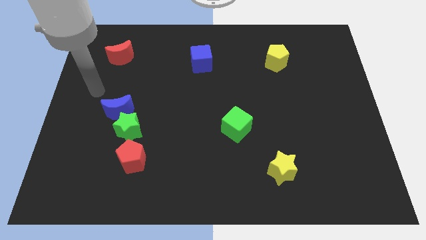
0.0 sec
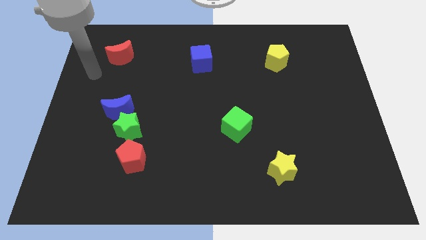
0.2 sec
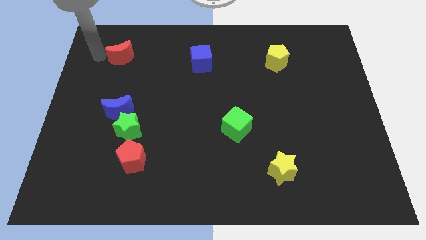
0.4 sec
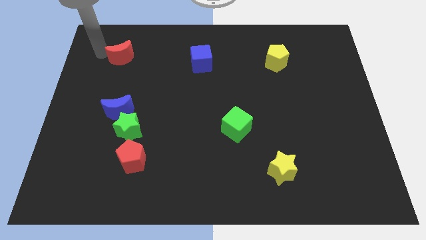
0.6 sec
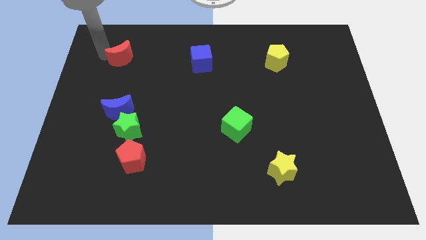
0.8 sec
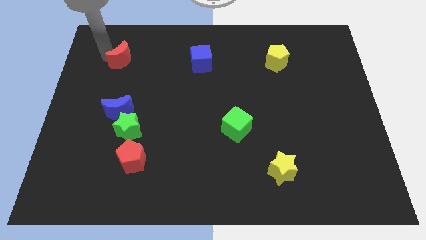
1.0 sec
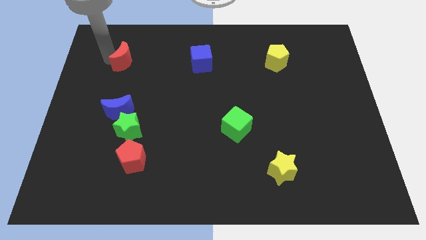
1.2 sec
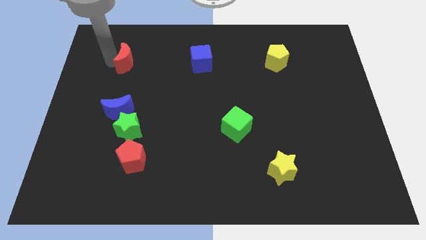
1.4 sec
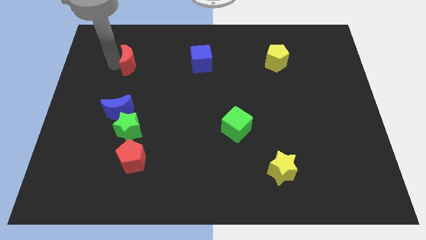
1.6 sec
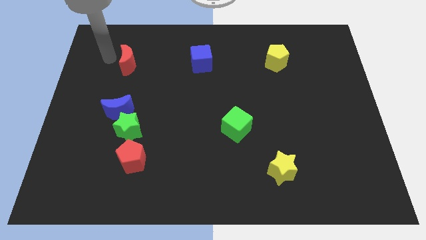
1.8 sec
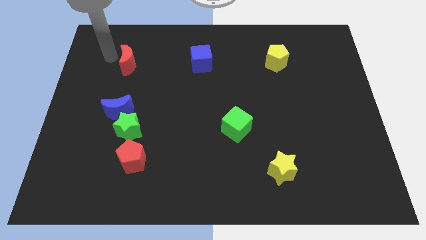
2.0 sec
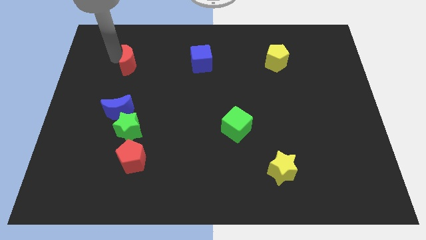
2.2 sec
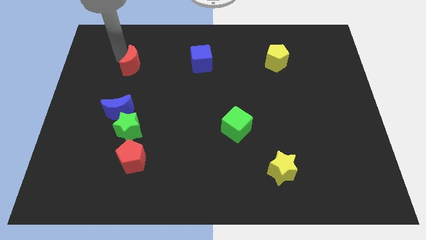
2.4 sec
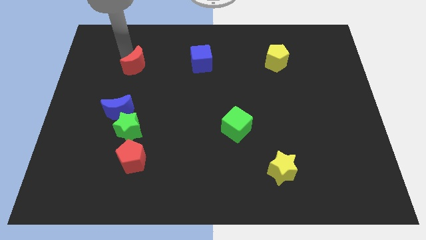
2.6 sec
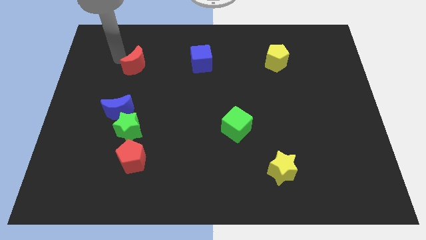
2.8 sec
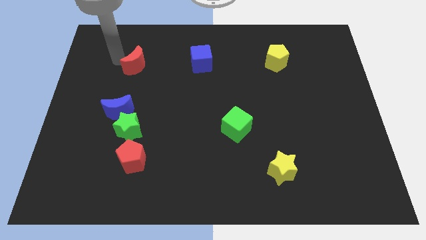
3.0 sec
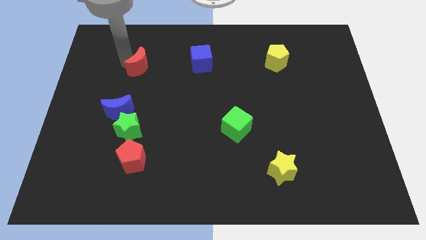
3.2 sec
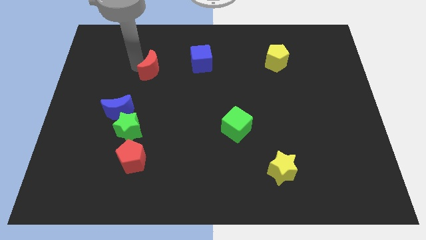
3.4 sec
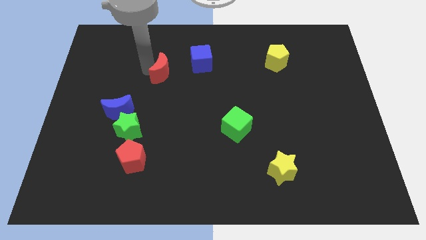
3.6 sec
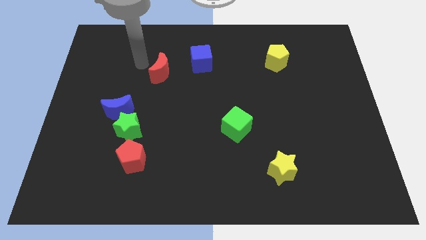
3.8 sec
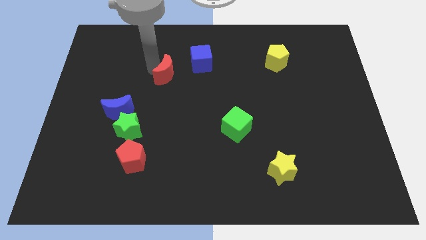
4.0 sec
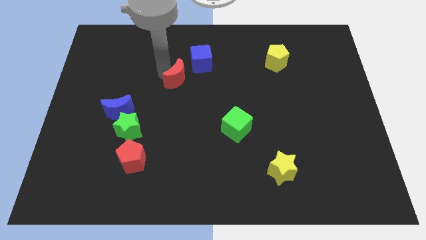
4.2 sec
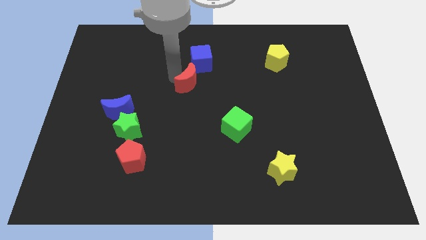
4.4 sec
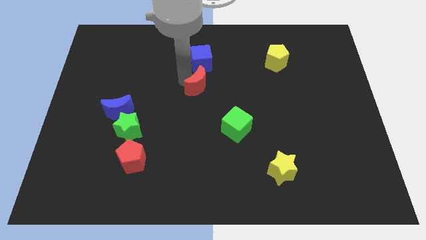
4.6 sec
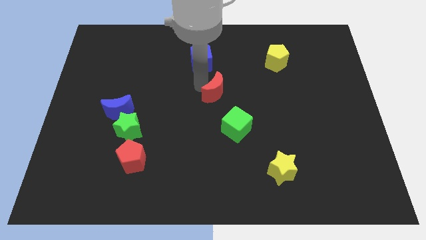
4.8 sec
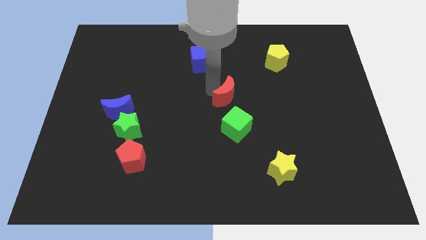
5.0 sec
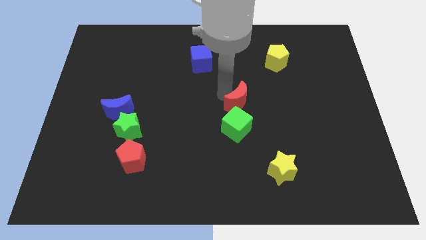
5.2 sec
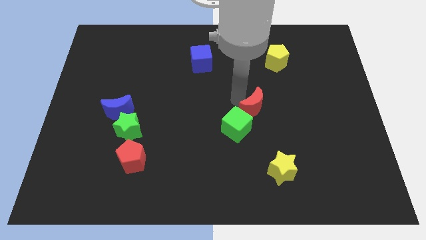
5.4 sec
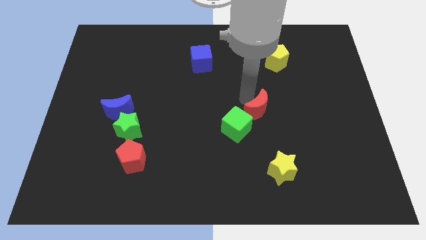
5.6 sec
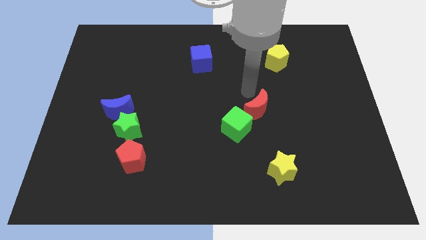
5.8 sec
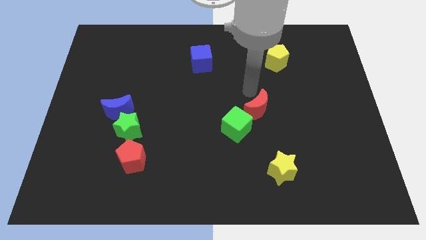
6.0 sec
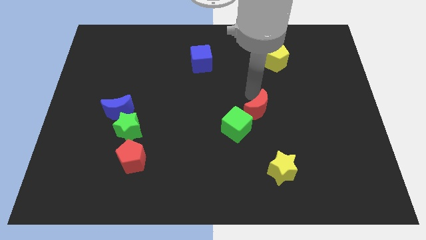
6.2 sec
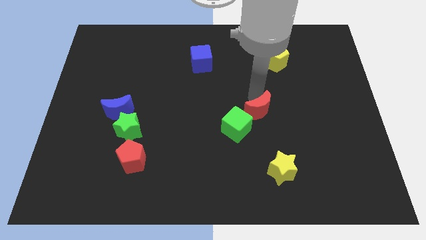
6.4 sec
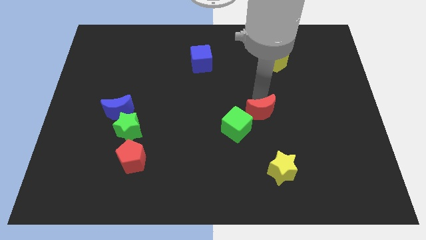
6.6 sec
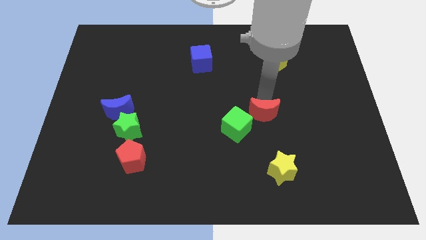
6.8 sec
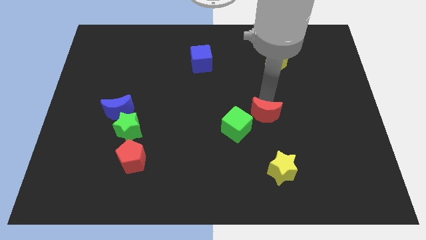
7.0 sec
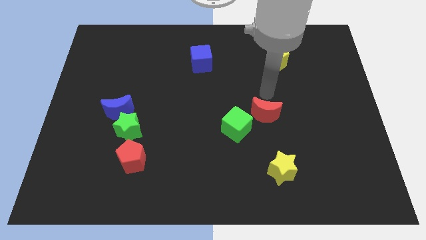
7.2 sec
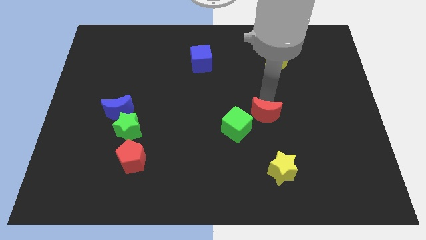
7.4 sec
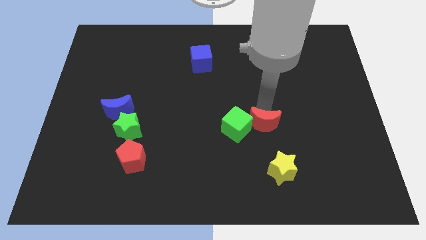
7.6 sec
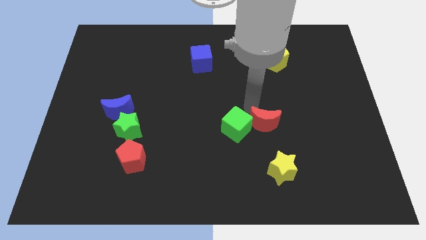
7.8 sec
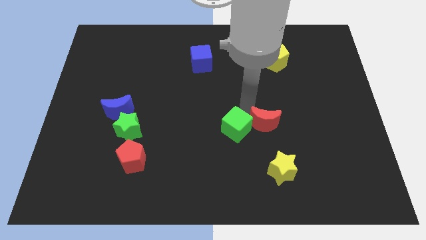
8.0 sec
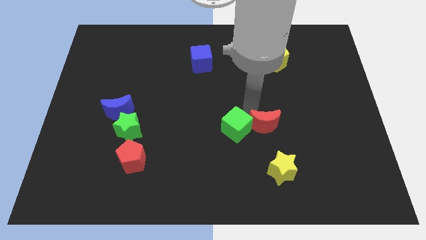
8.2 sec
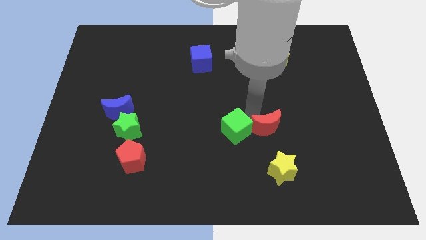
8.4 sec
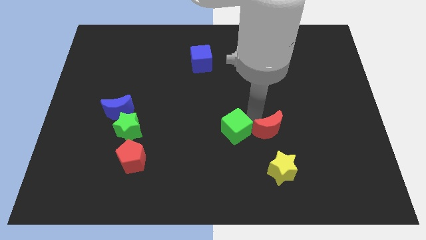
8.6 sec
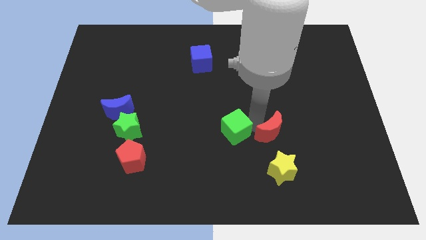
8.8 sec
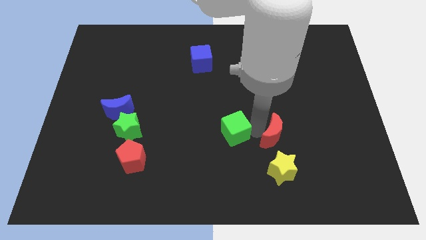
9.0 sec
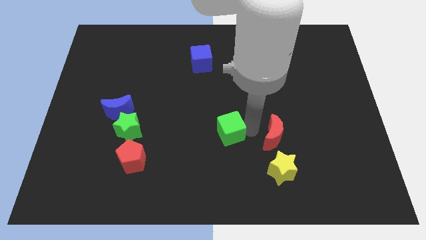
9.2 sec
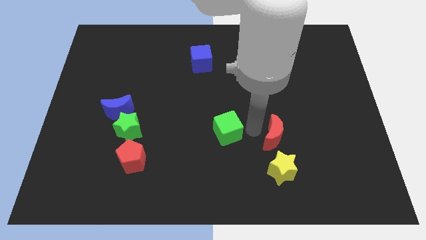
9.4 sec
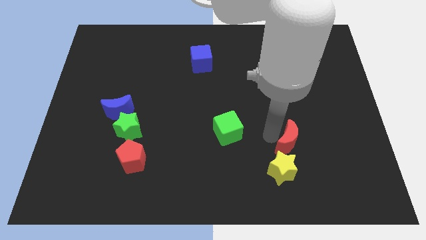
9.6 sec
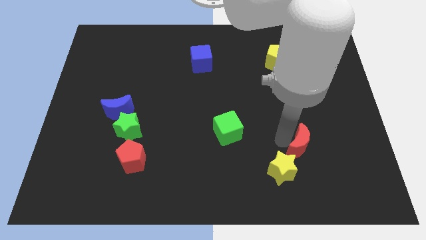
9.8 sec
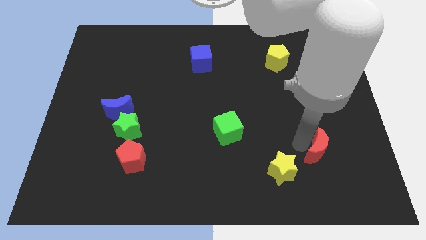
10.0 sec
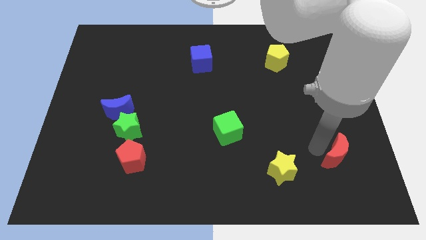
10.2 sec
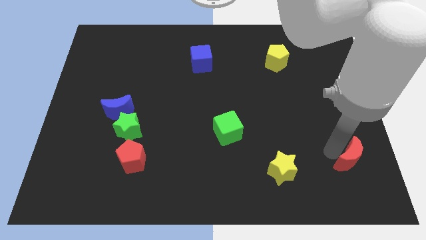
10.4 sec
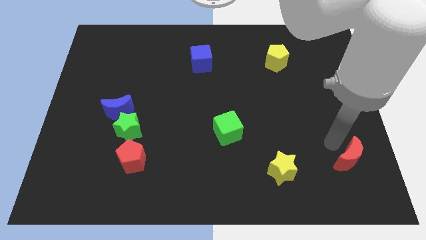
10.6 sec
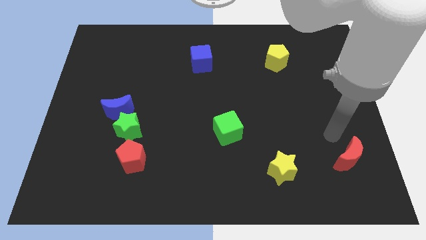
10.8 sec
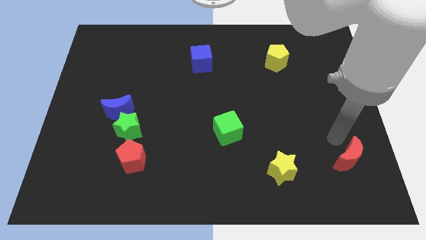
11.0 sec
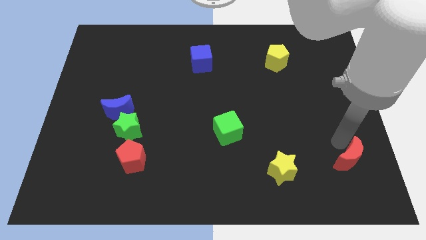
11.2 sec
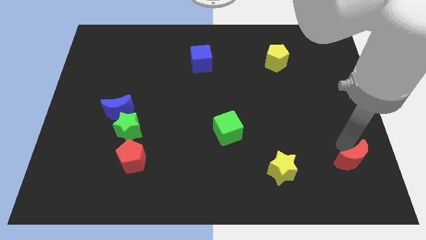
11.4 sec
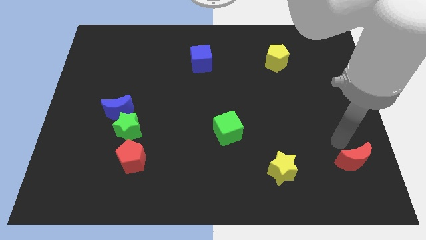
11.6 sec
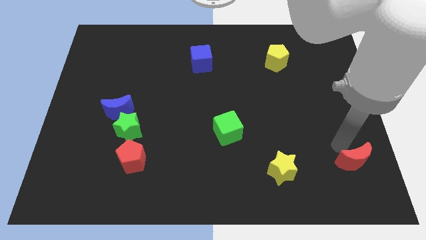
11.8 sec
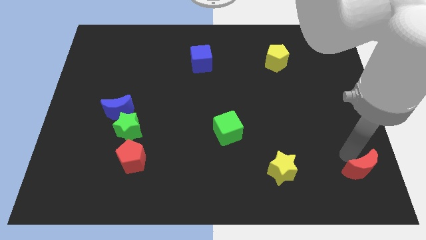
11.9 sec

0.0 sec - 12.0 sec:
move the red moon to the bottom right of the board

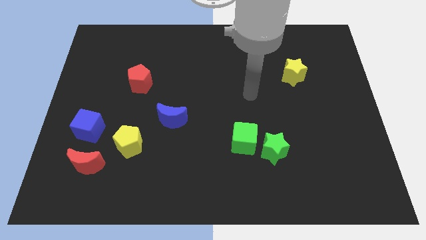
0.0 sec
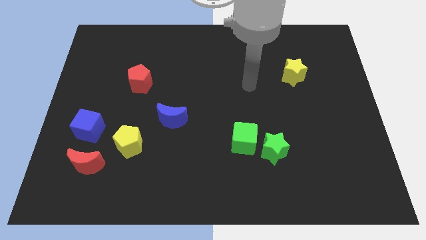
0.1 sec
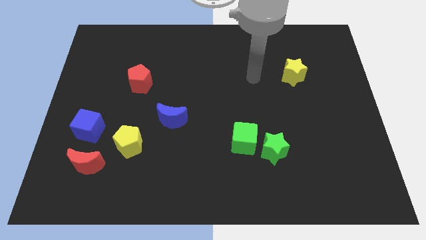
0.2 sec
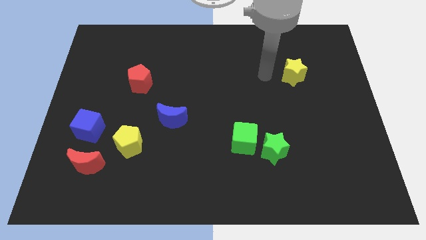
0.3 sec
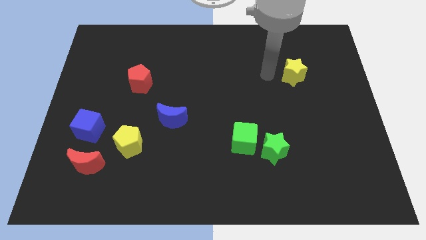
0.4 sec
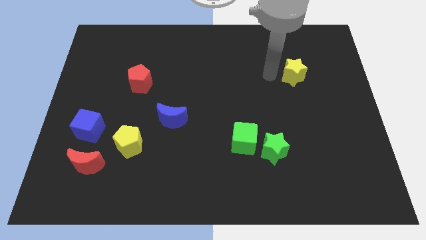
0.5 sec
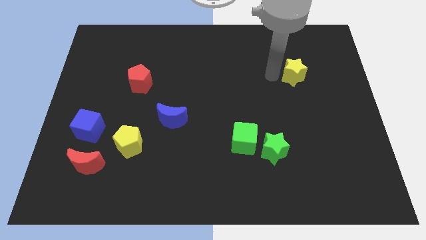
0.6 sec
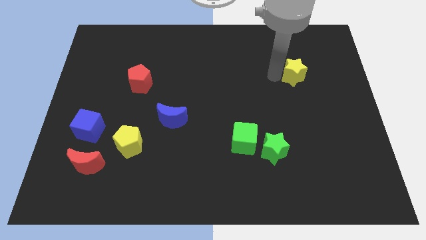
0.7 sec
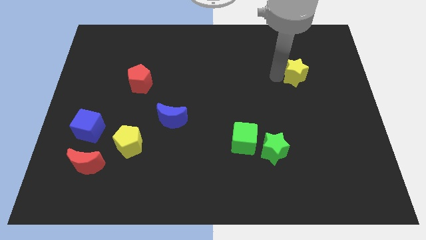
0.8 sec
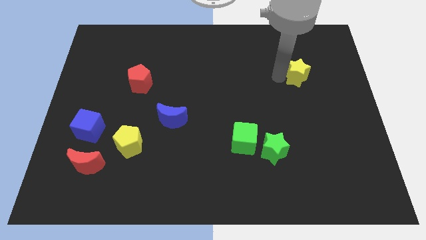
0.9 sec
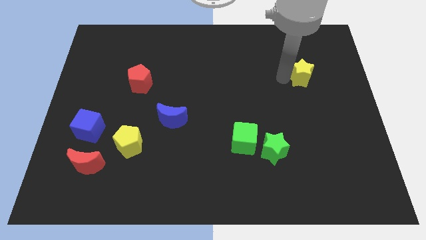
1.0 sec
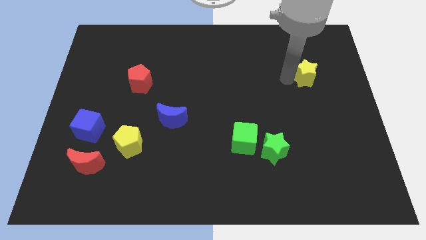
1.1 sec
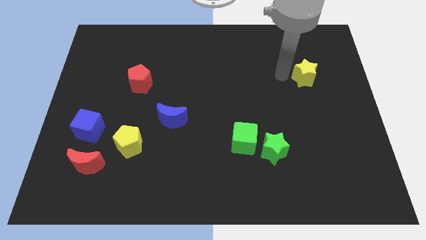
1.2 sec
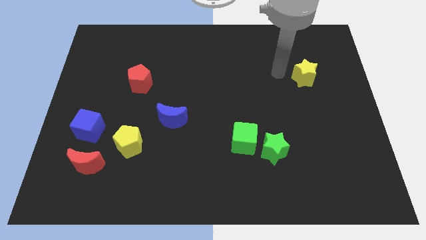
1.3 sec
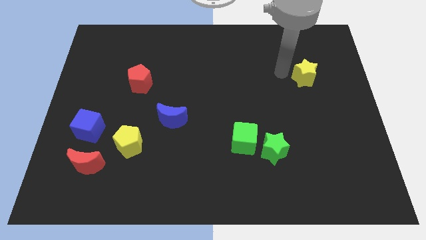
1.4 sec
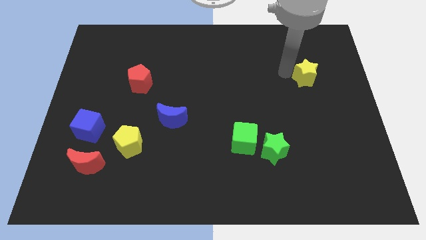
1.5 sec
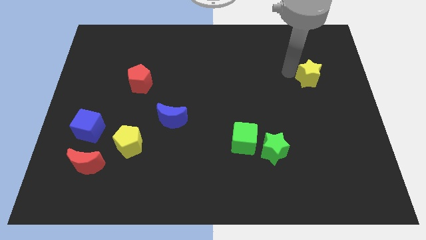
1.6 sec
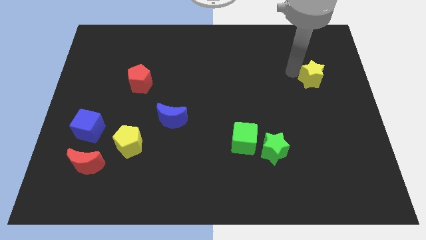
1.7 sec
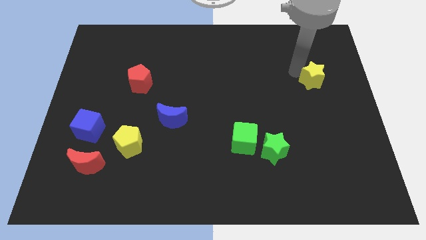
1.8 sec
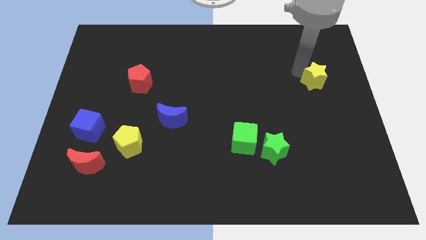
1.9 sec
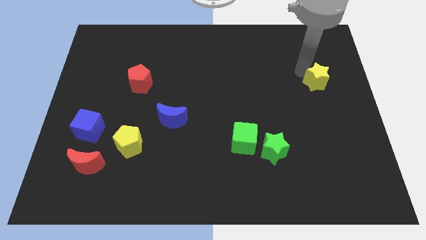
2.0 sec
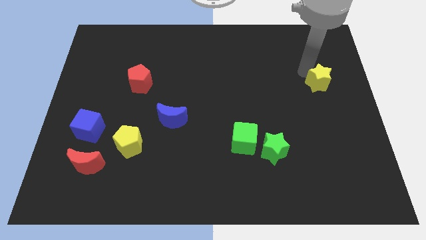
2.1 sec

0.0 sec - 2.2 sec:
slide the yellow star to the center right
